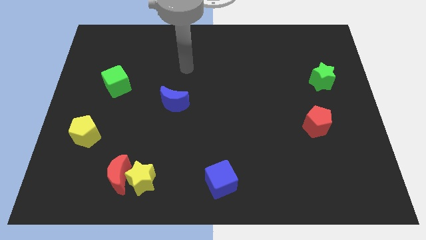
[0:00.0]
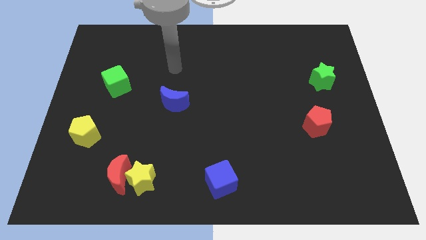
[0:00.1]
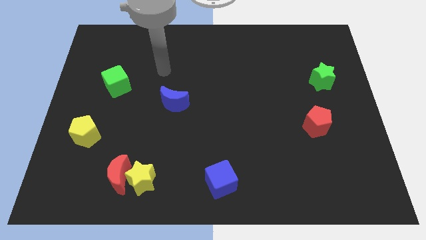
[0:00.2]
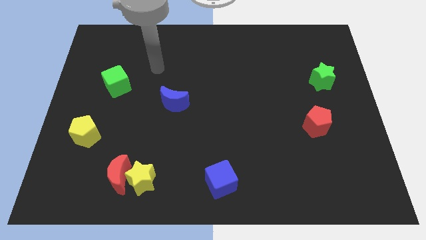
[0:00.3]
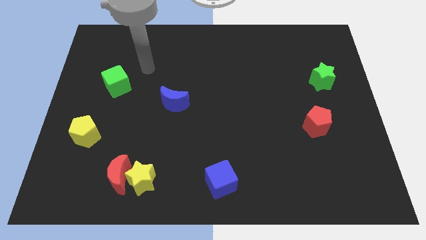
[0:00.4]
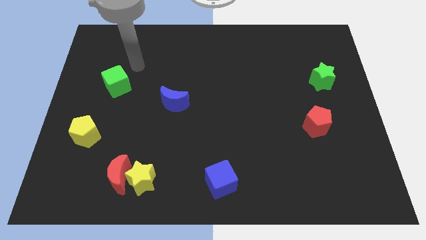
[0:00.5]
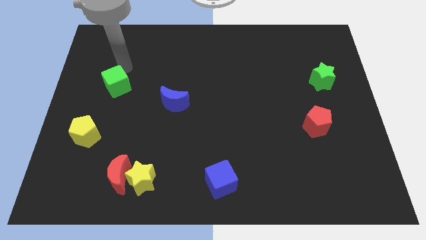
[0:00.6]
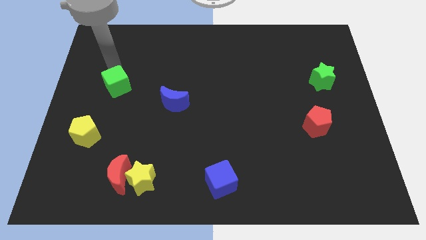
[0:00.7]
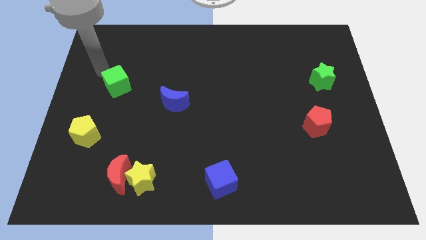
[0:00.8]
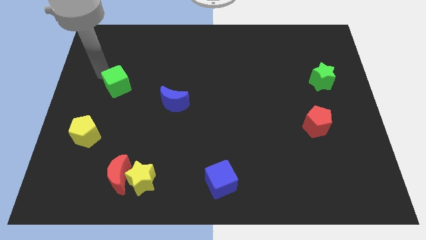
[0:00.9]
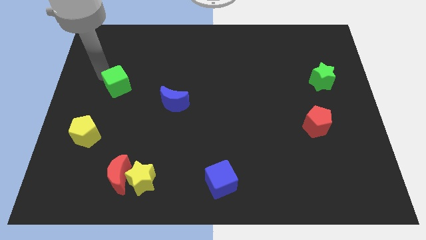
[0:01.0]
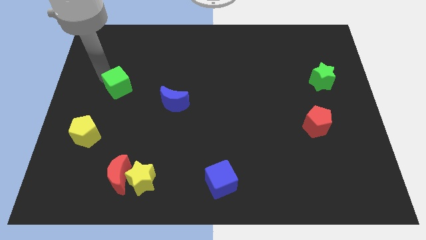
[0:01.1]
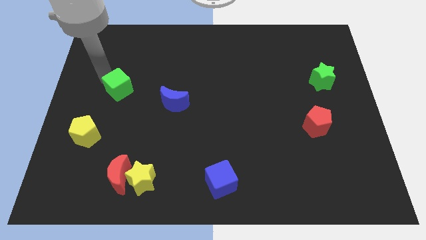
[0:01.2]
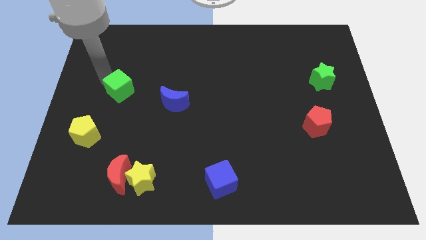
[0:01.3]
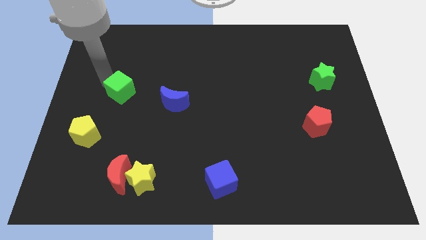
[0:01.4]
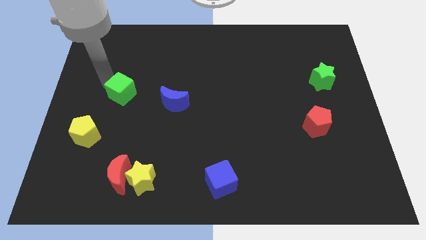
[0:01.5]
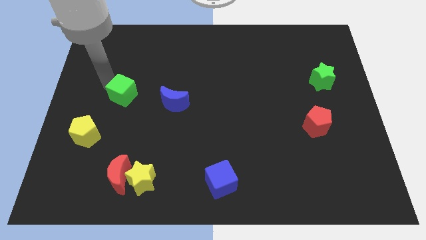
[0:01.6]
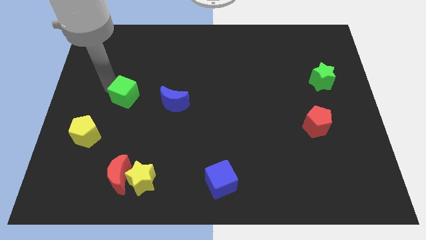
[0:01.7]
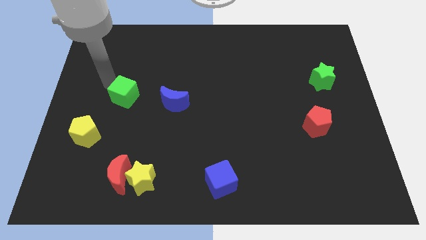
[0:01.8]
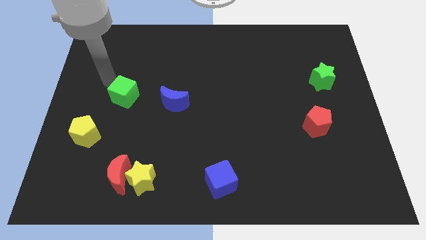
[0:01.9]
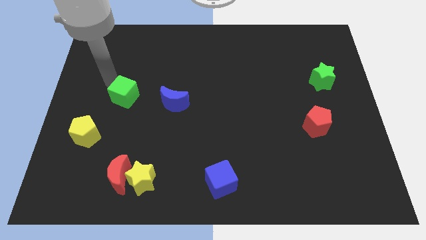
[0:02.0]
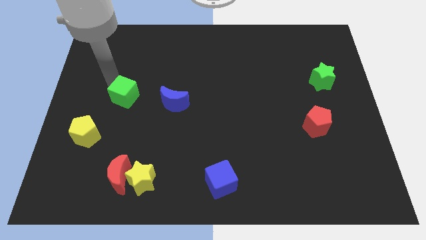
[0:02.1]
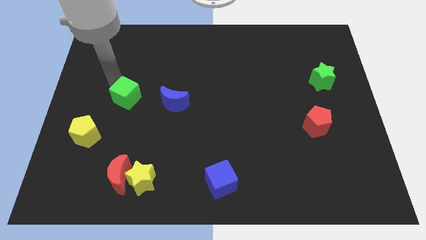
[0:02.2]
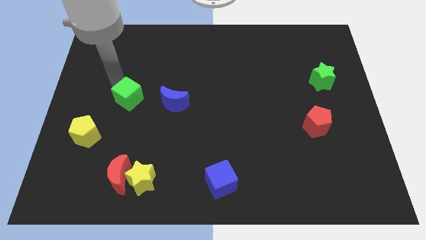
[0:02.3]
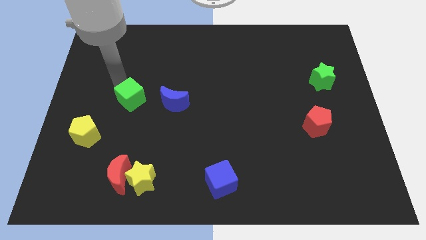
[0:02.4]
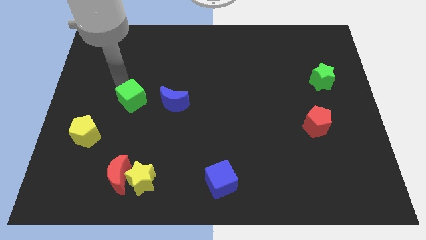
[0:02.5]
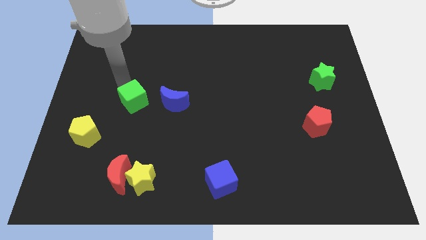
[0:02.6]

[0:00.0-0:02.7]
move the green cube slightly down and then to the right

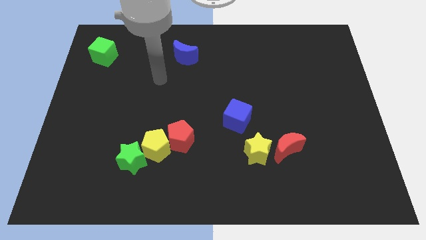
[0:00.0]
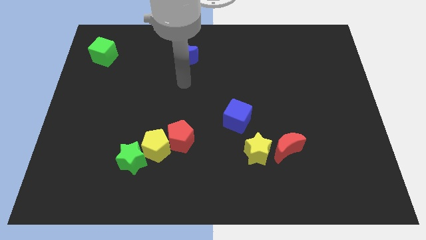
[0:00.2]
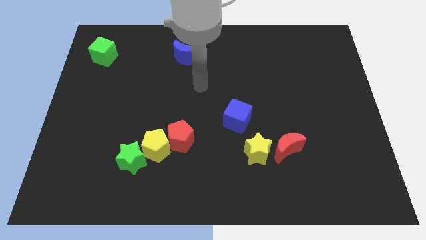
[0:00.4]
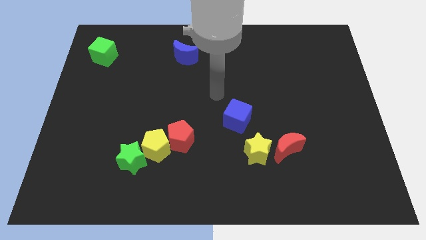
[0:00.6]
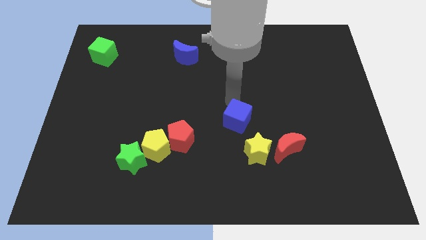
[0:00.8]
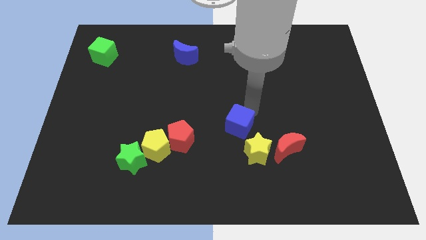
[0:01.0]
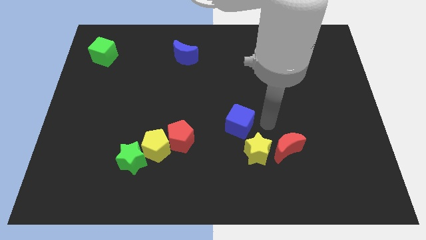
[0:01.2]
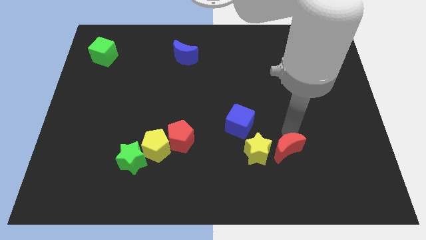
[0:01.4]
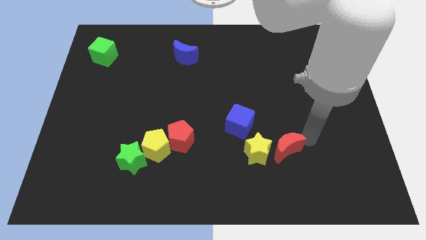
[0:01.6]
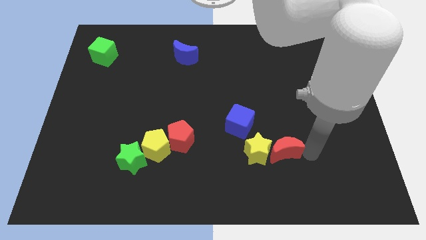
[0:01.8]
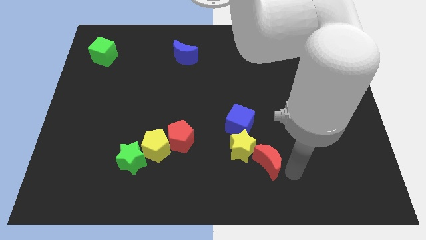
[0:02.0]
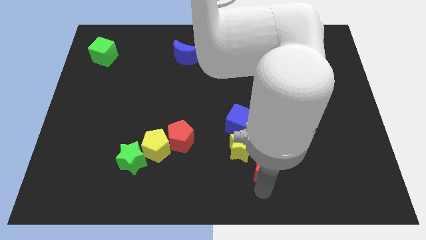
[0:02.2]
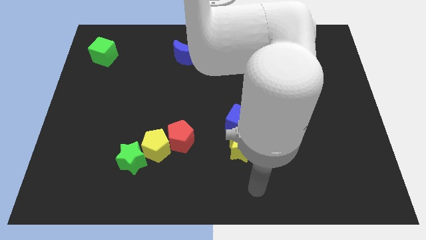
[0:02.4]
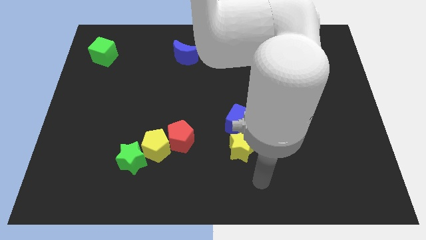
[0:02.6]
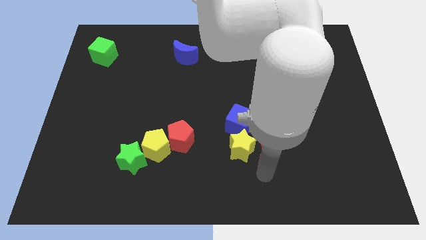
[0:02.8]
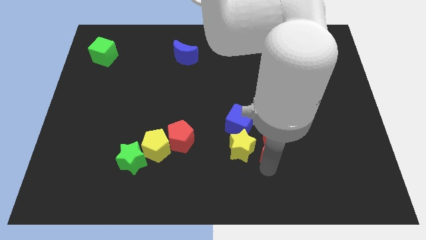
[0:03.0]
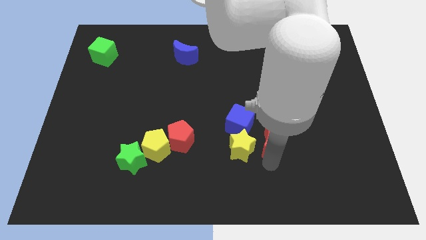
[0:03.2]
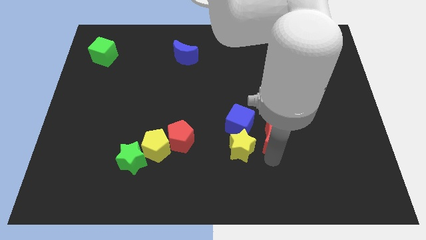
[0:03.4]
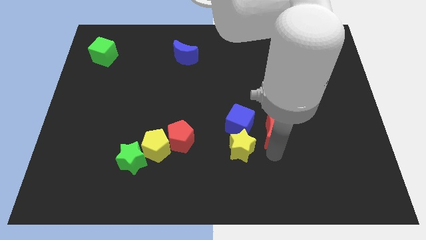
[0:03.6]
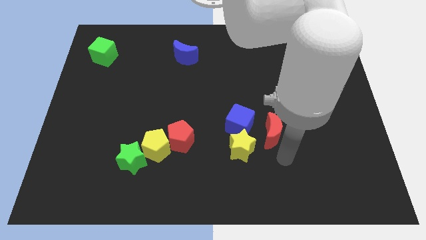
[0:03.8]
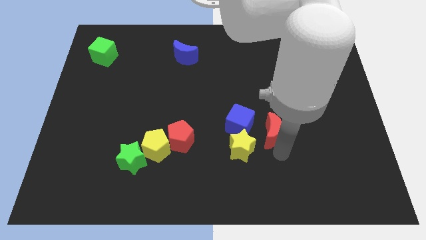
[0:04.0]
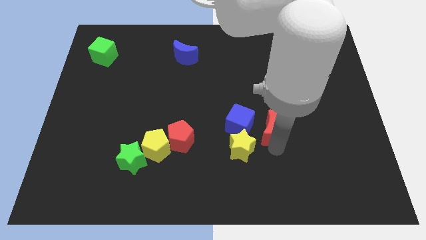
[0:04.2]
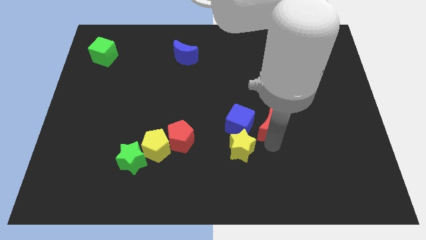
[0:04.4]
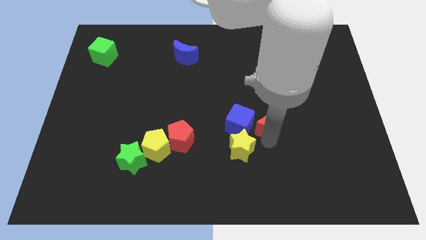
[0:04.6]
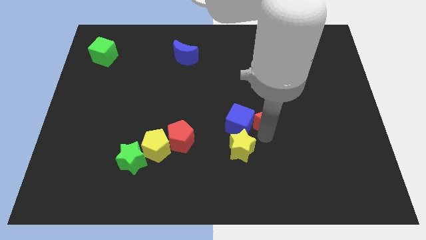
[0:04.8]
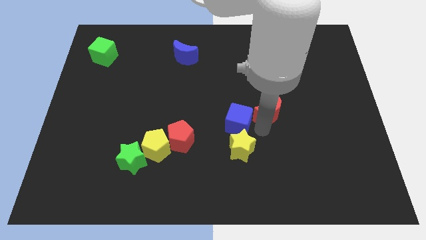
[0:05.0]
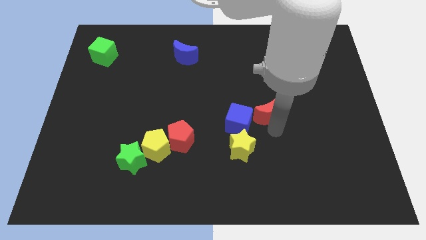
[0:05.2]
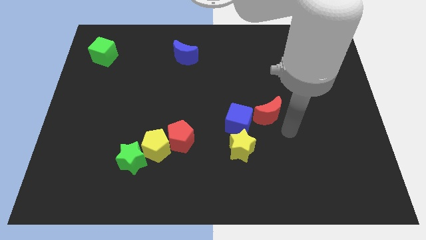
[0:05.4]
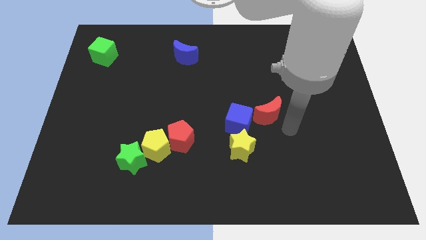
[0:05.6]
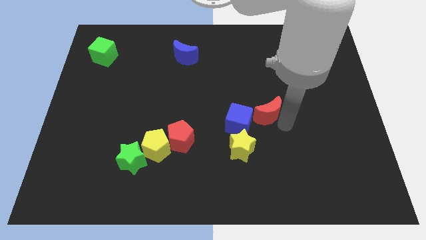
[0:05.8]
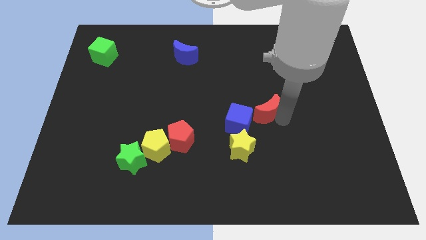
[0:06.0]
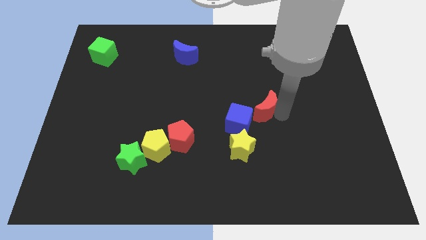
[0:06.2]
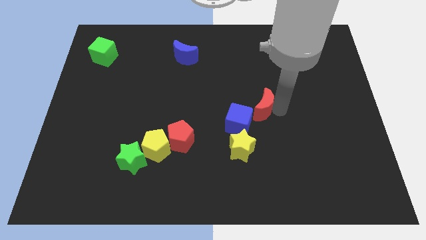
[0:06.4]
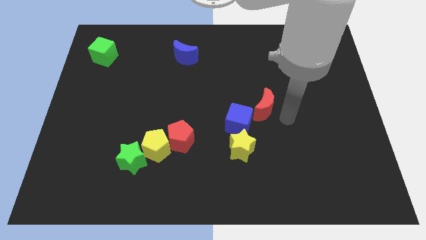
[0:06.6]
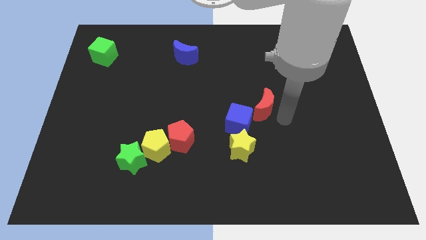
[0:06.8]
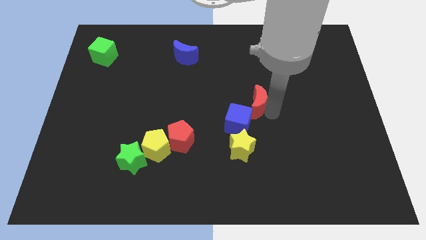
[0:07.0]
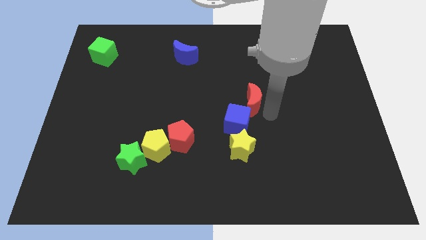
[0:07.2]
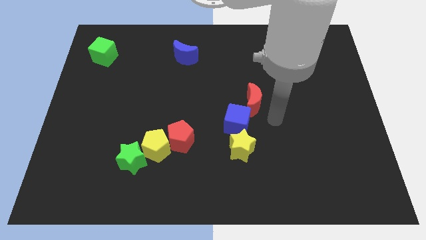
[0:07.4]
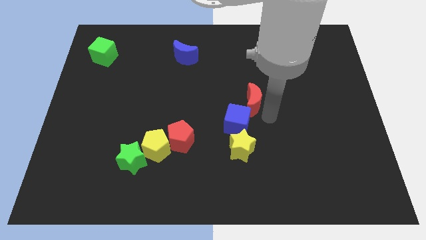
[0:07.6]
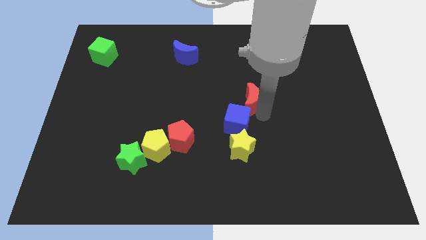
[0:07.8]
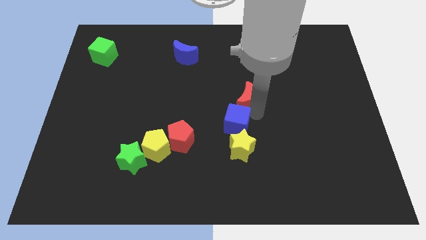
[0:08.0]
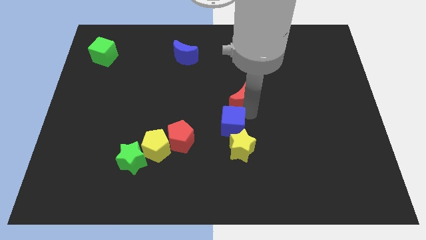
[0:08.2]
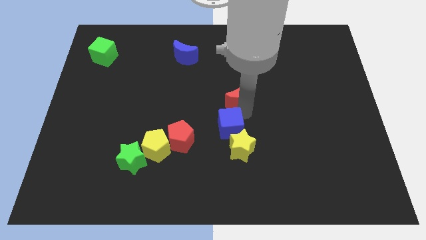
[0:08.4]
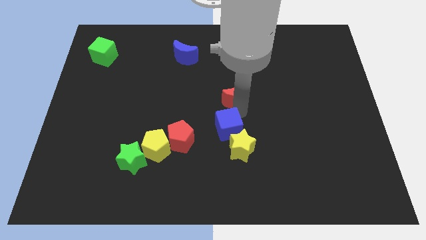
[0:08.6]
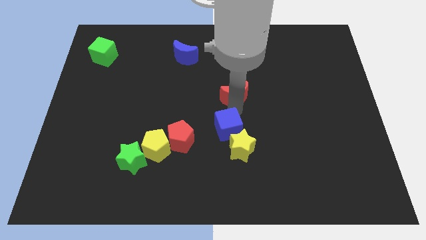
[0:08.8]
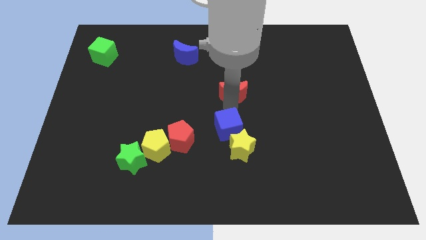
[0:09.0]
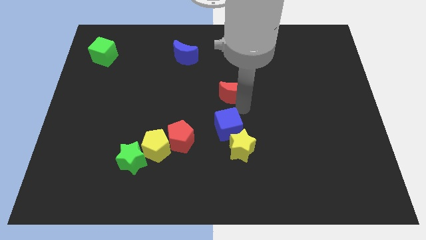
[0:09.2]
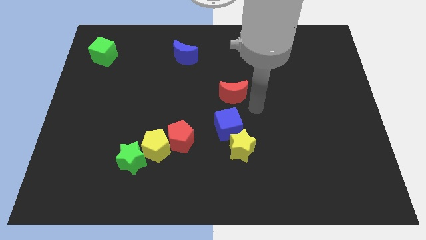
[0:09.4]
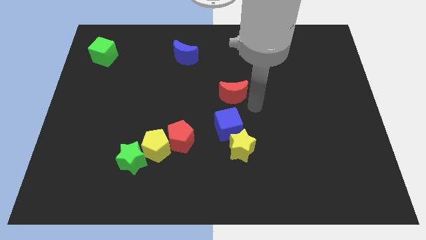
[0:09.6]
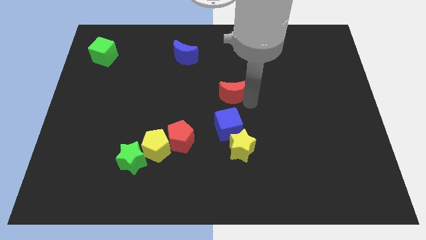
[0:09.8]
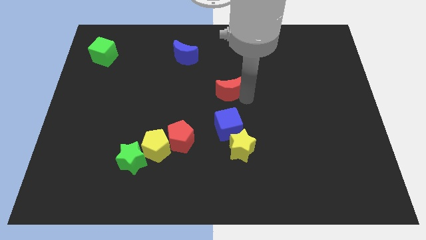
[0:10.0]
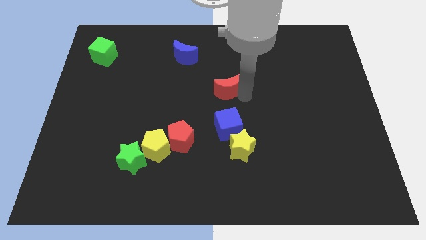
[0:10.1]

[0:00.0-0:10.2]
push the red moon upwards and then to the left
